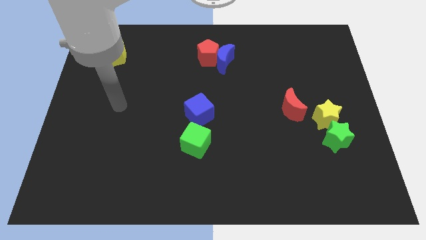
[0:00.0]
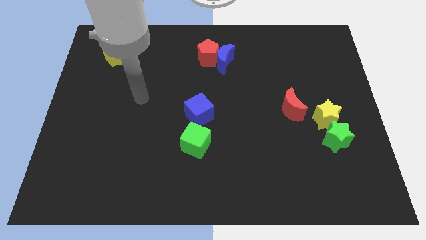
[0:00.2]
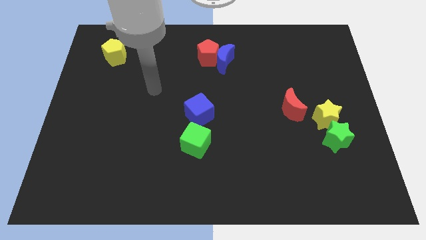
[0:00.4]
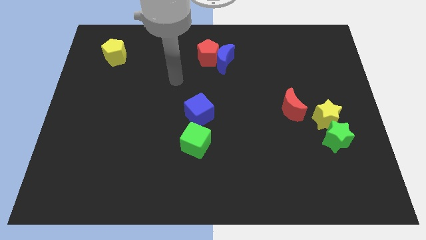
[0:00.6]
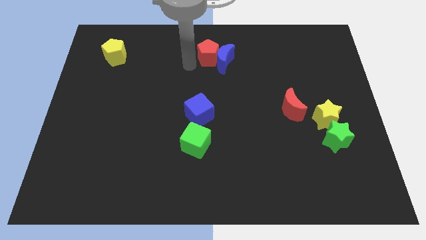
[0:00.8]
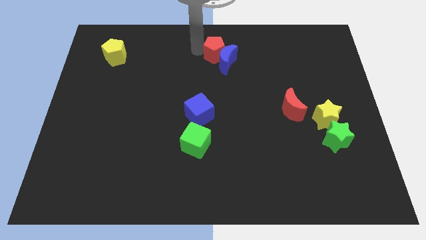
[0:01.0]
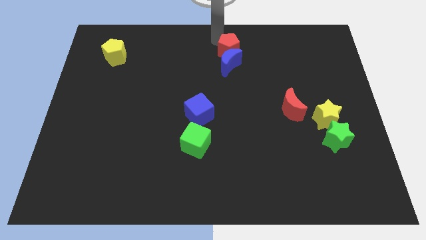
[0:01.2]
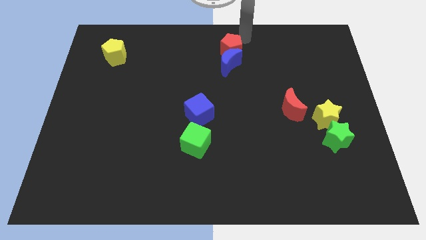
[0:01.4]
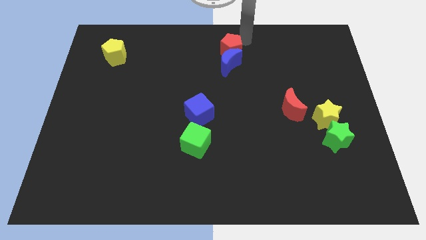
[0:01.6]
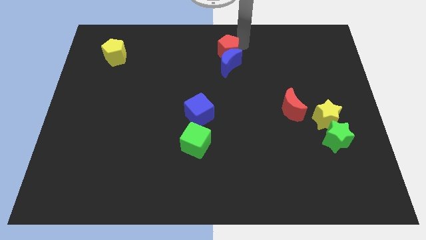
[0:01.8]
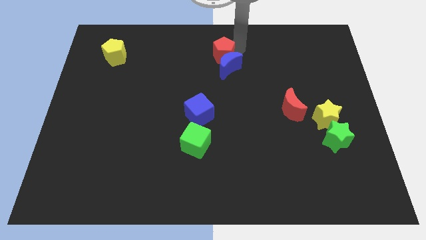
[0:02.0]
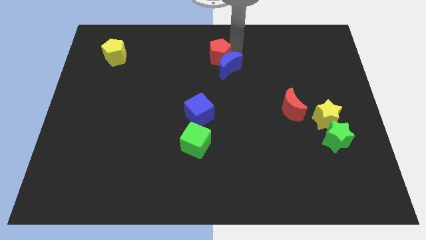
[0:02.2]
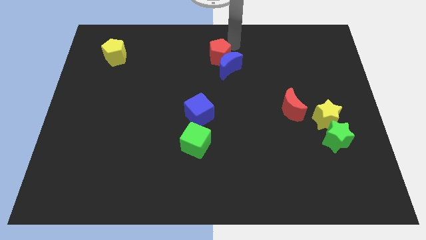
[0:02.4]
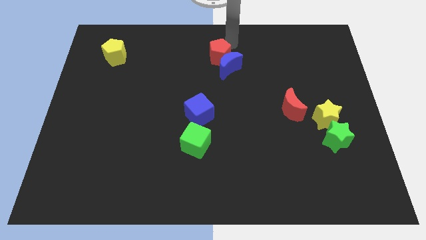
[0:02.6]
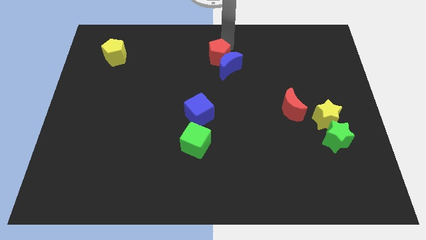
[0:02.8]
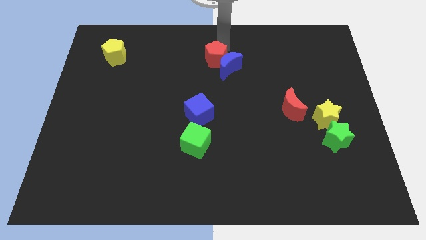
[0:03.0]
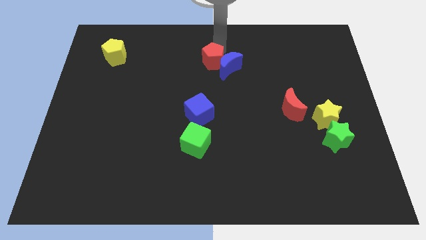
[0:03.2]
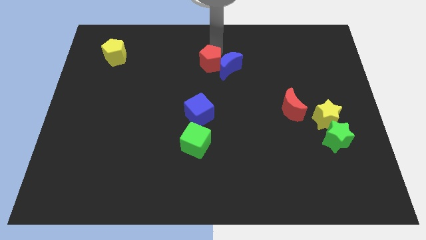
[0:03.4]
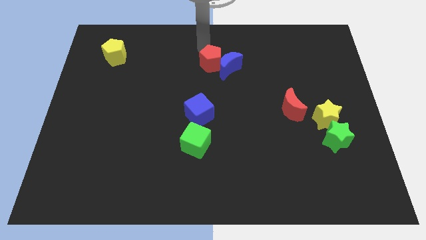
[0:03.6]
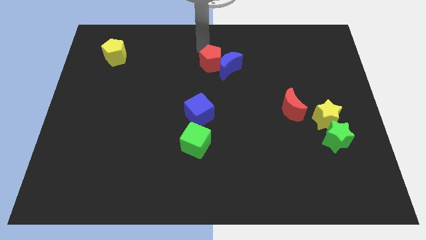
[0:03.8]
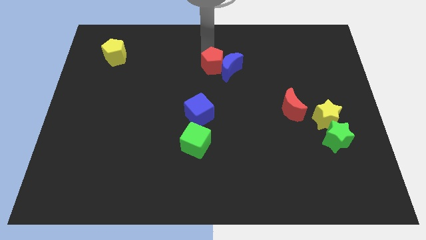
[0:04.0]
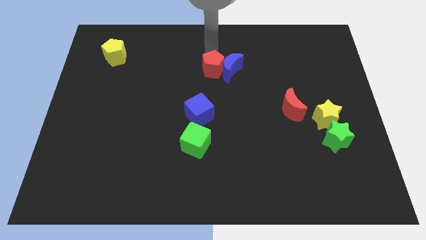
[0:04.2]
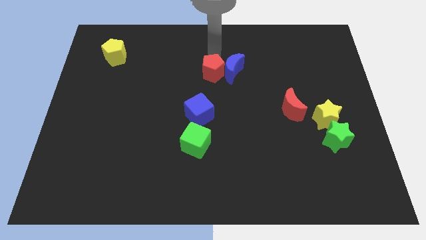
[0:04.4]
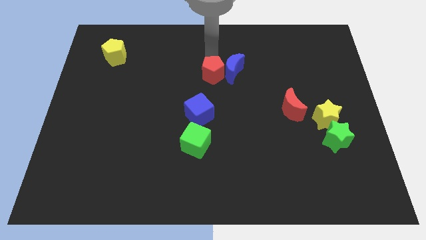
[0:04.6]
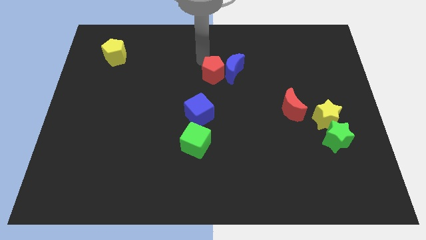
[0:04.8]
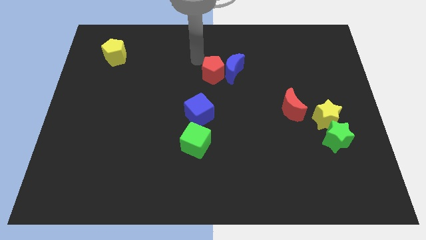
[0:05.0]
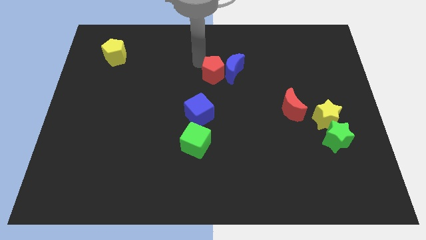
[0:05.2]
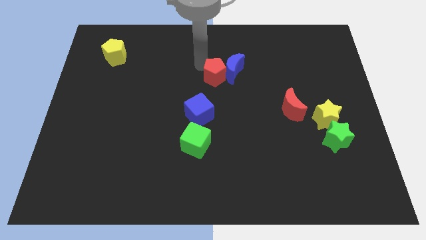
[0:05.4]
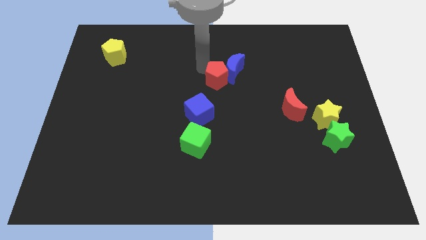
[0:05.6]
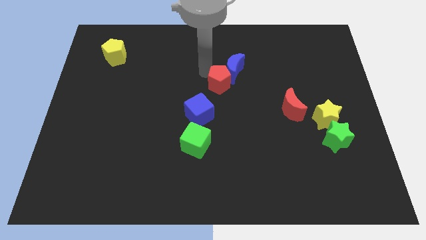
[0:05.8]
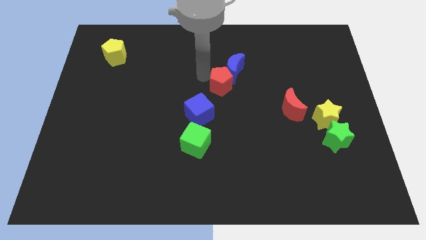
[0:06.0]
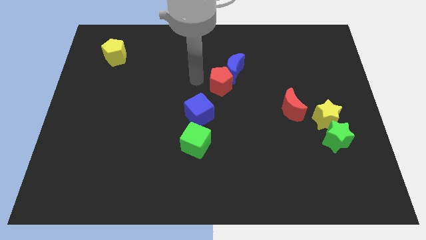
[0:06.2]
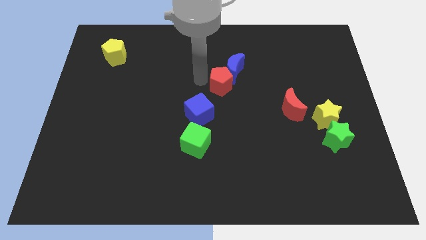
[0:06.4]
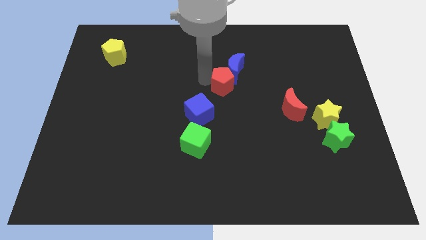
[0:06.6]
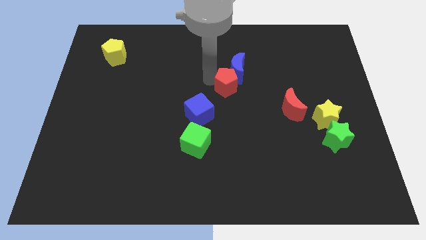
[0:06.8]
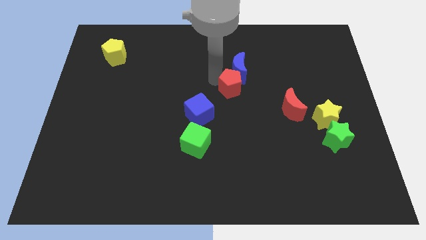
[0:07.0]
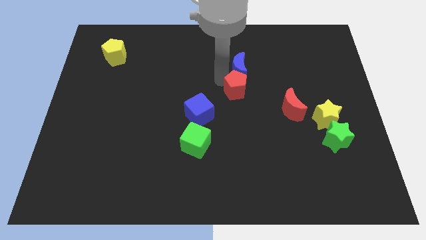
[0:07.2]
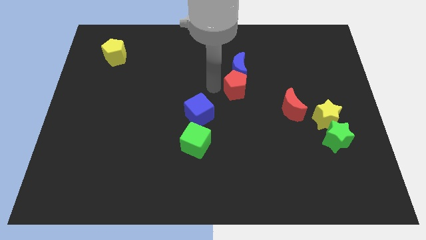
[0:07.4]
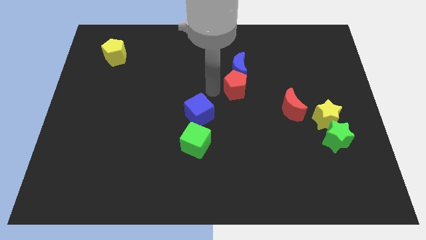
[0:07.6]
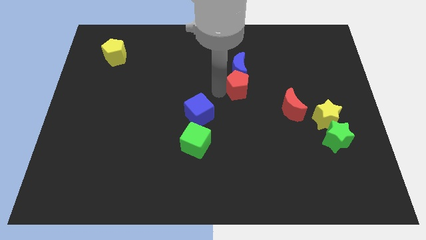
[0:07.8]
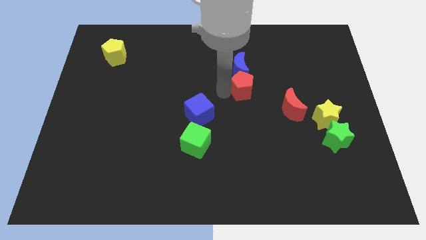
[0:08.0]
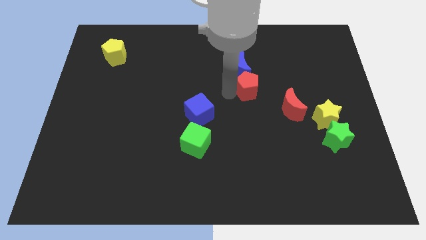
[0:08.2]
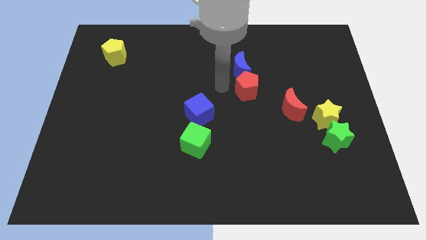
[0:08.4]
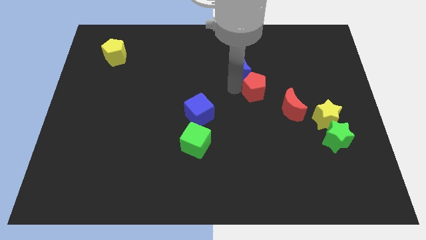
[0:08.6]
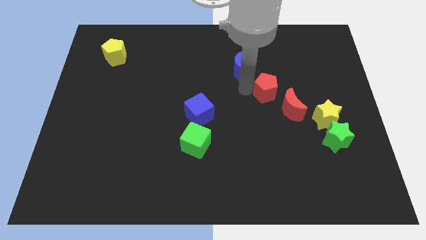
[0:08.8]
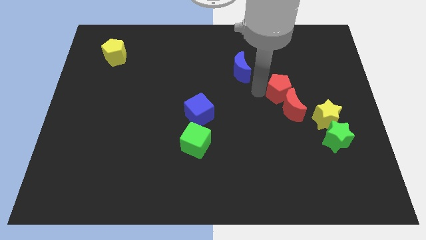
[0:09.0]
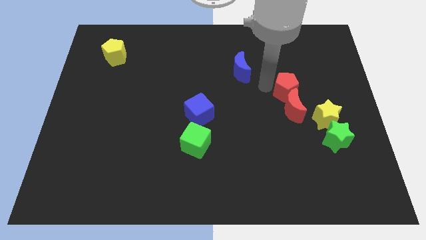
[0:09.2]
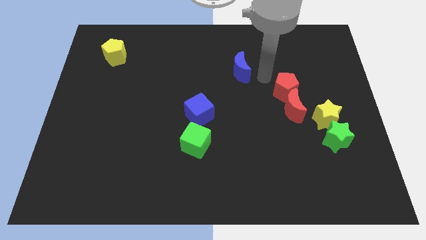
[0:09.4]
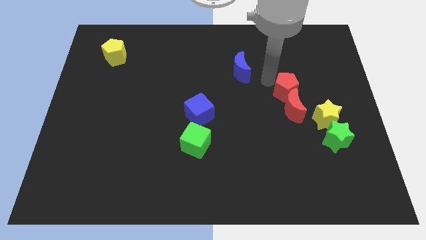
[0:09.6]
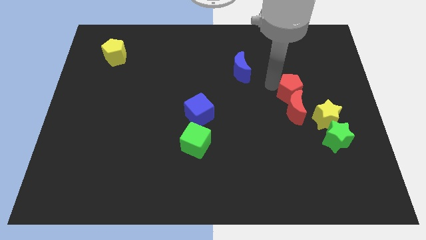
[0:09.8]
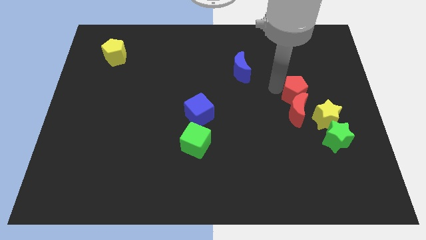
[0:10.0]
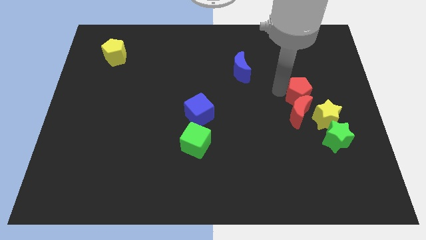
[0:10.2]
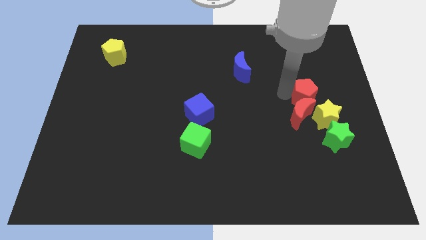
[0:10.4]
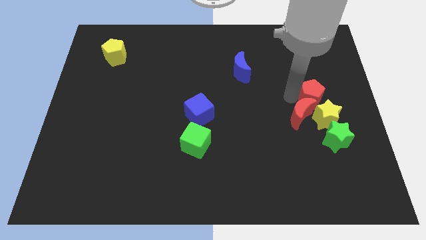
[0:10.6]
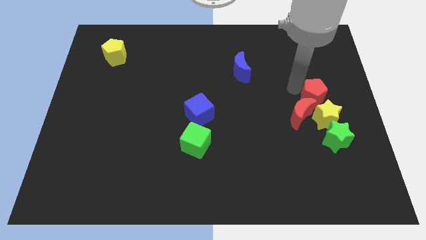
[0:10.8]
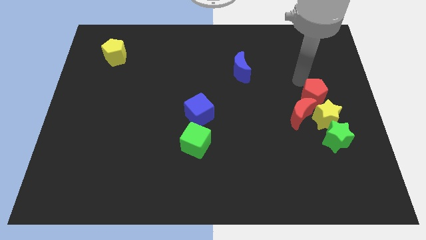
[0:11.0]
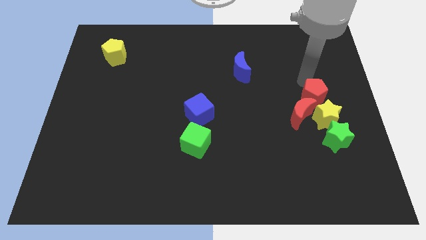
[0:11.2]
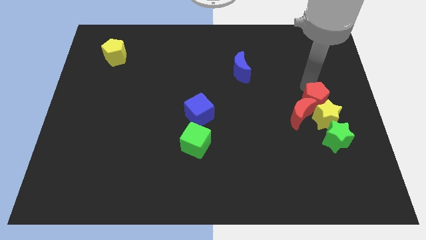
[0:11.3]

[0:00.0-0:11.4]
move the red pentagon close to the yellow star

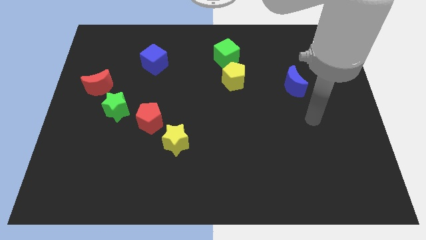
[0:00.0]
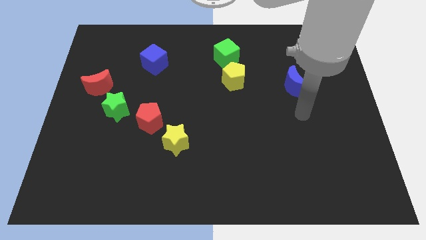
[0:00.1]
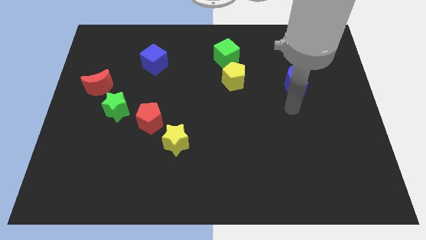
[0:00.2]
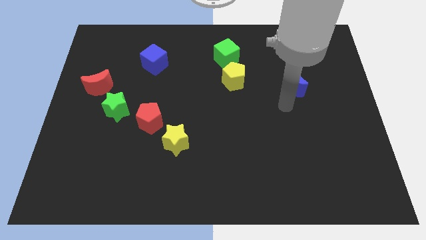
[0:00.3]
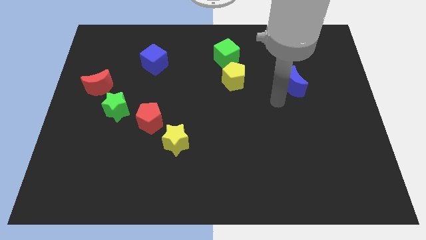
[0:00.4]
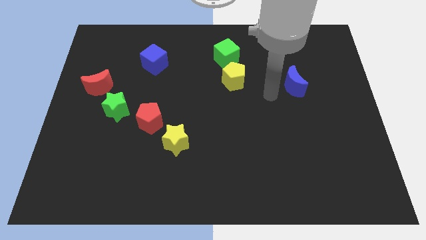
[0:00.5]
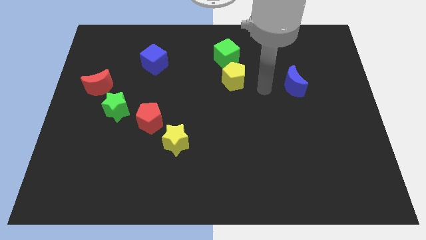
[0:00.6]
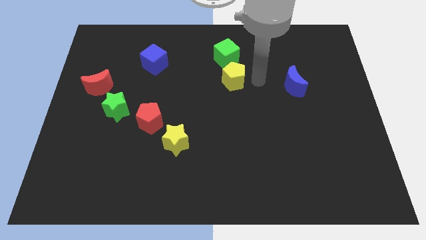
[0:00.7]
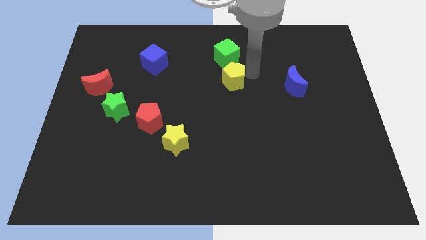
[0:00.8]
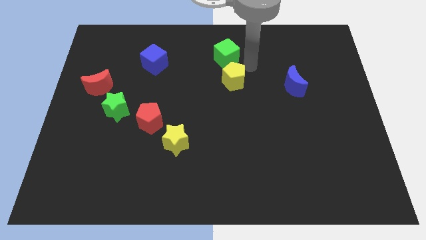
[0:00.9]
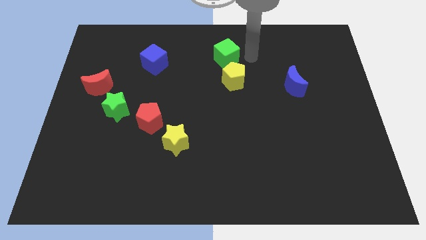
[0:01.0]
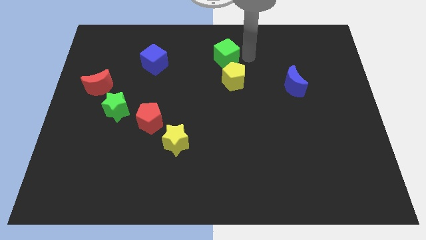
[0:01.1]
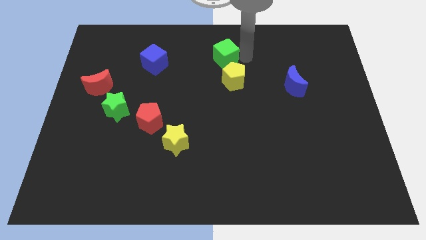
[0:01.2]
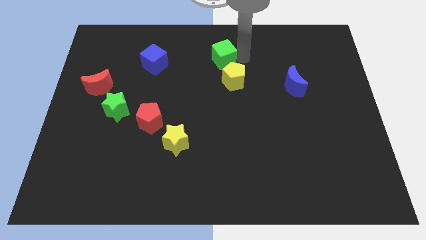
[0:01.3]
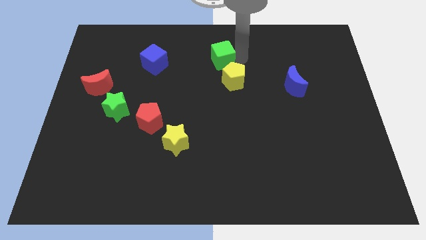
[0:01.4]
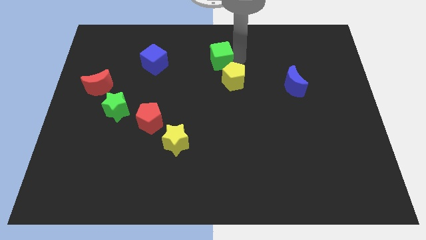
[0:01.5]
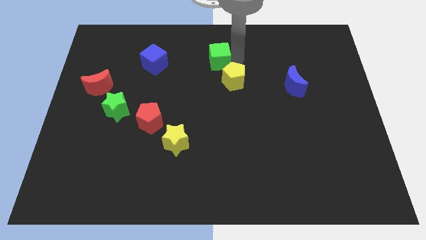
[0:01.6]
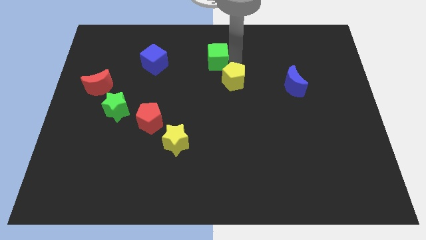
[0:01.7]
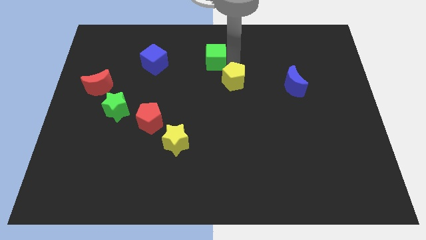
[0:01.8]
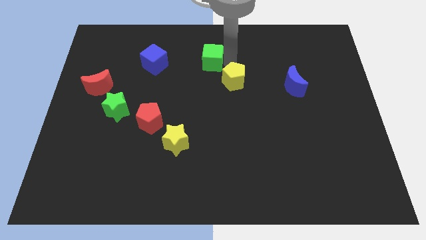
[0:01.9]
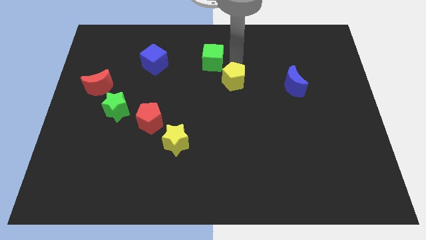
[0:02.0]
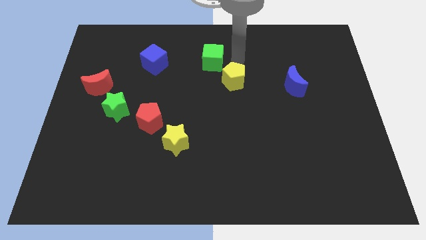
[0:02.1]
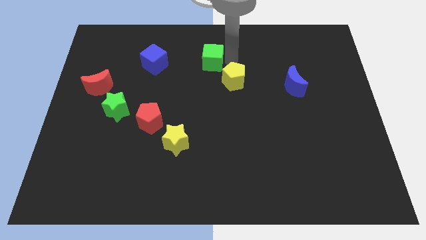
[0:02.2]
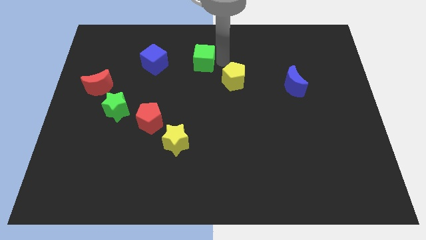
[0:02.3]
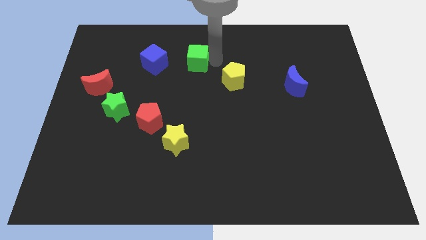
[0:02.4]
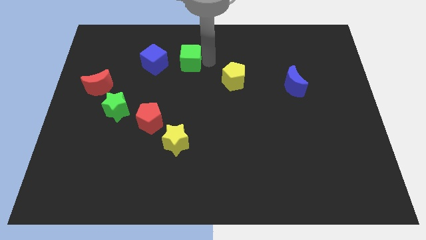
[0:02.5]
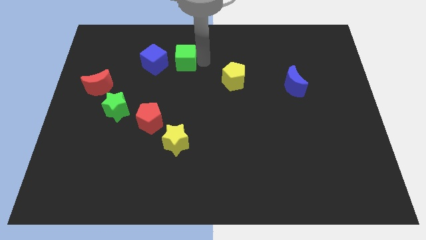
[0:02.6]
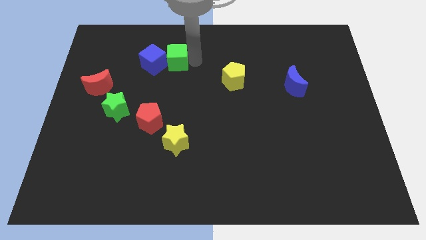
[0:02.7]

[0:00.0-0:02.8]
move the green cube towards the blue cube
